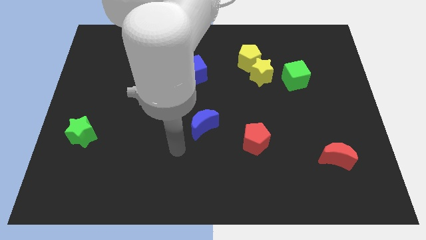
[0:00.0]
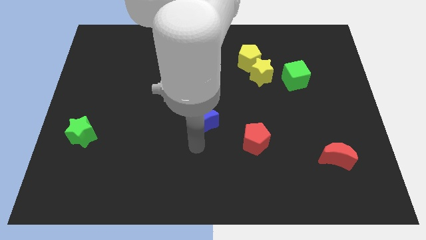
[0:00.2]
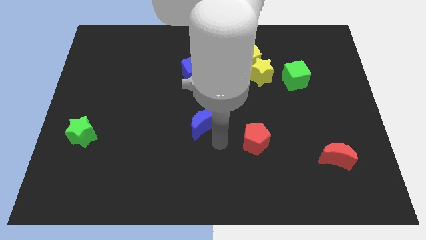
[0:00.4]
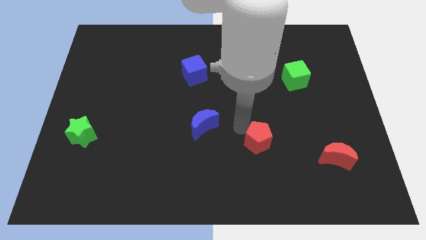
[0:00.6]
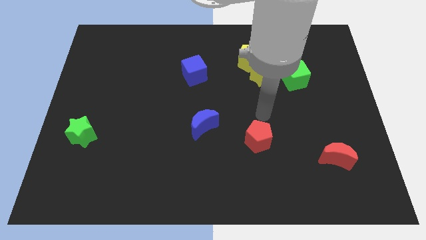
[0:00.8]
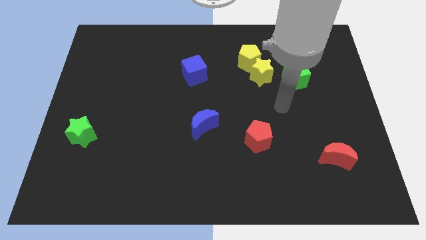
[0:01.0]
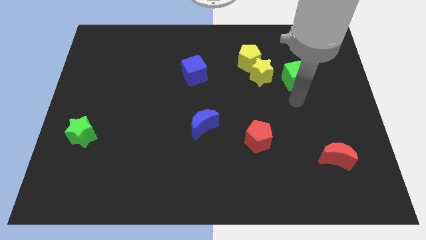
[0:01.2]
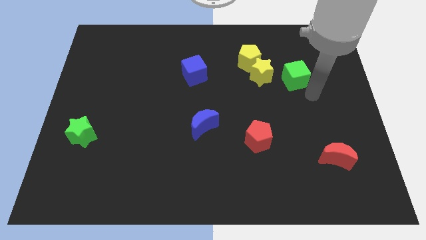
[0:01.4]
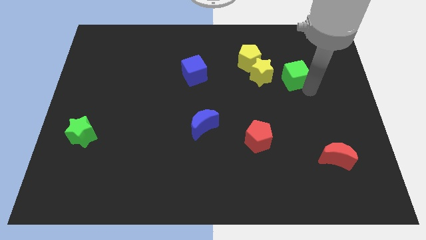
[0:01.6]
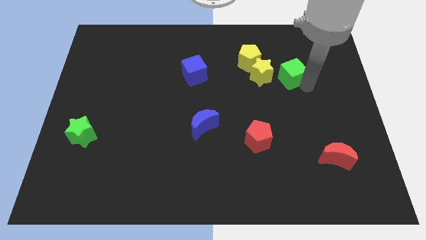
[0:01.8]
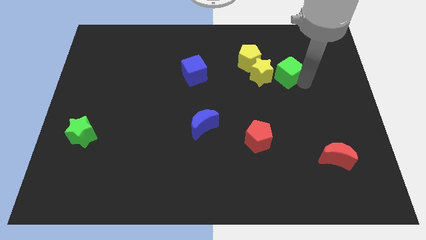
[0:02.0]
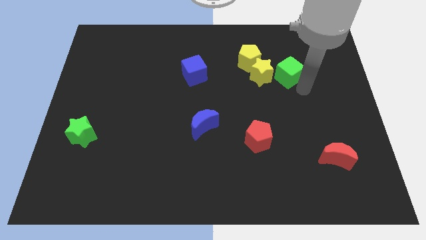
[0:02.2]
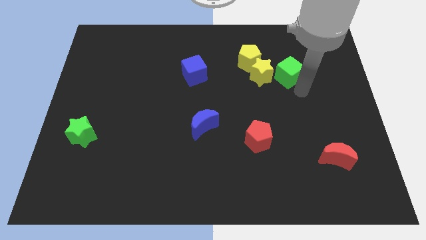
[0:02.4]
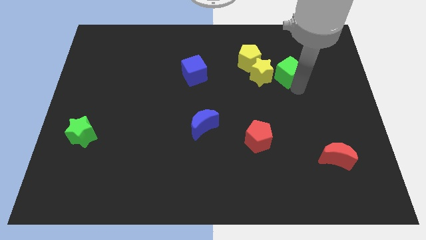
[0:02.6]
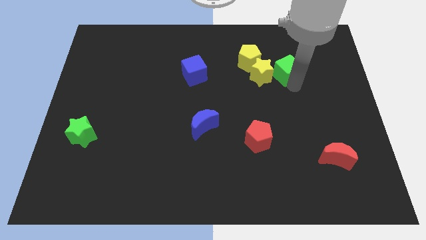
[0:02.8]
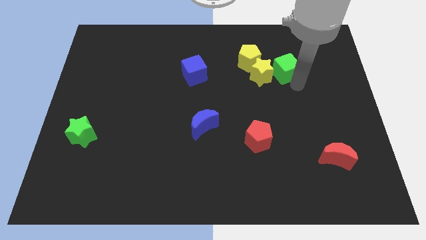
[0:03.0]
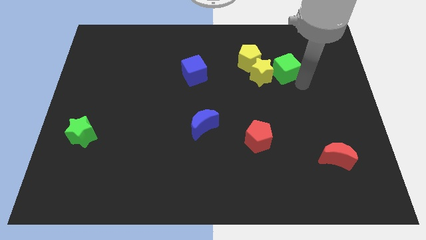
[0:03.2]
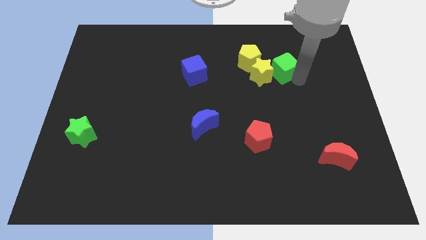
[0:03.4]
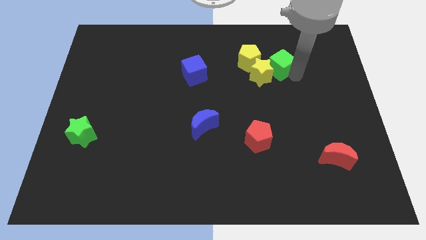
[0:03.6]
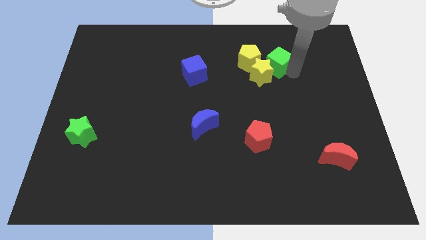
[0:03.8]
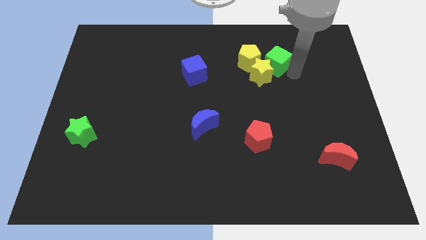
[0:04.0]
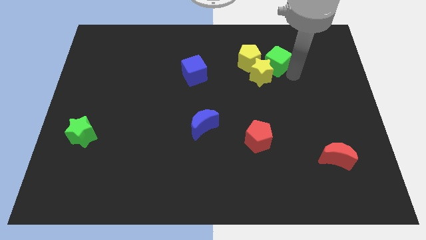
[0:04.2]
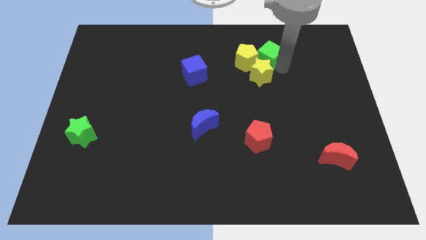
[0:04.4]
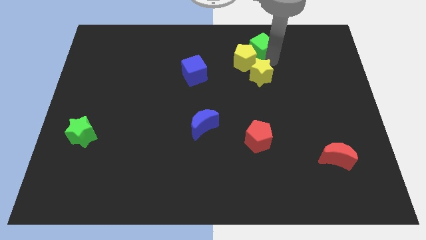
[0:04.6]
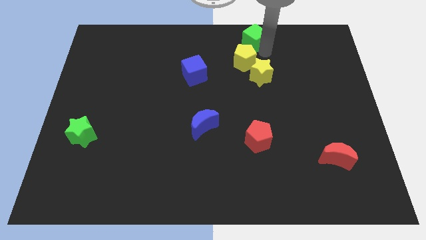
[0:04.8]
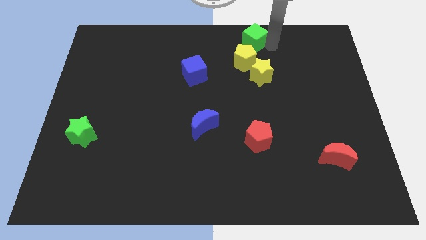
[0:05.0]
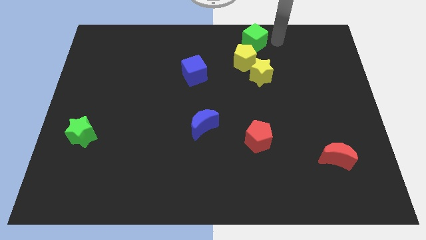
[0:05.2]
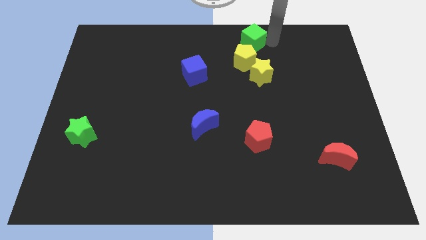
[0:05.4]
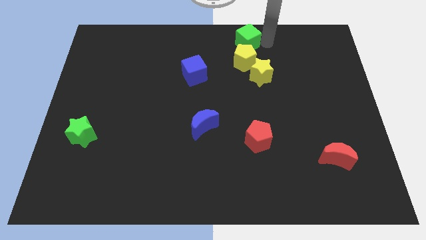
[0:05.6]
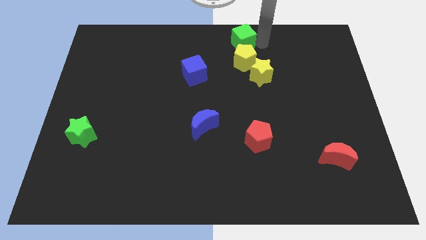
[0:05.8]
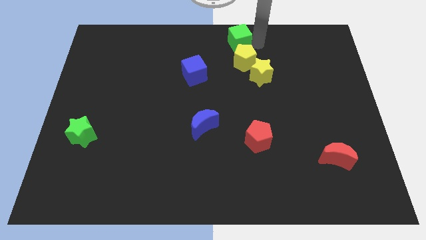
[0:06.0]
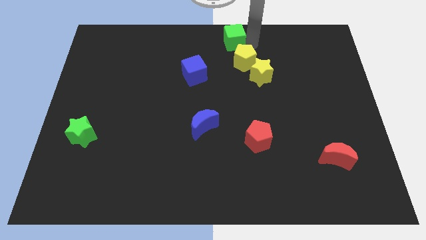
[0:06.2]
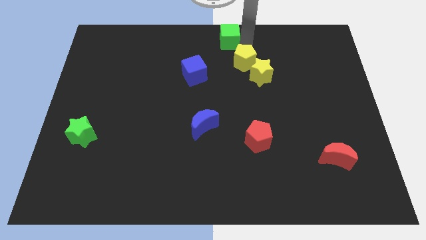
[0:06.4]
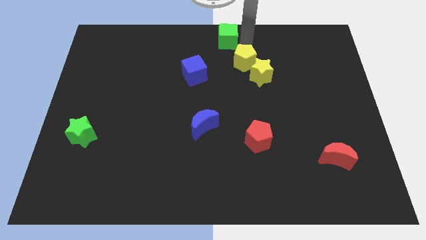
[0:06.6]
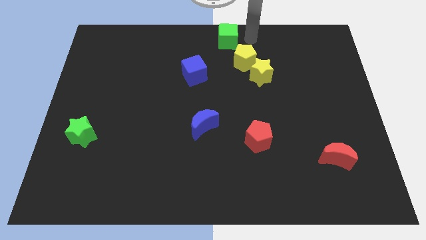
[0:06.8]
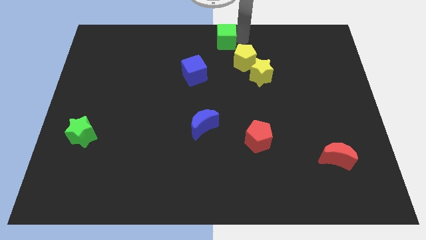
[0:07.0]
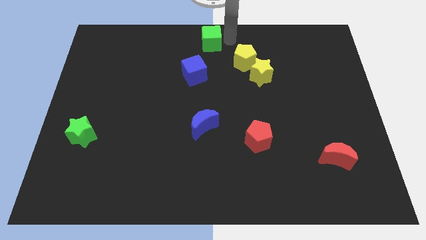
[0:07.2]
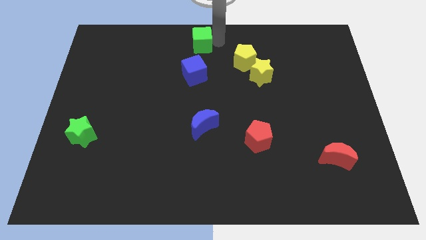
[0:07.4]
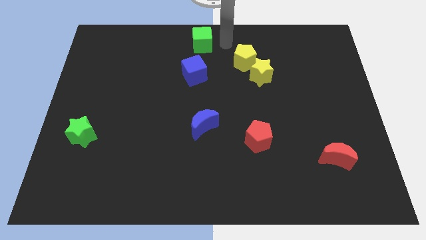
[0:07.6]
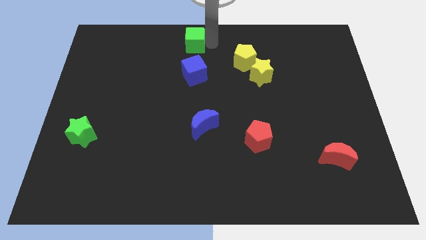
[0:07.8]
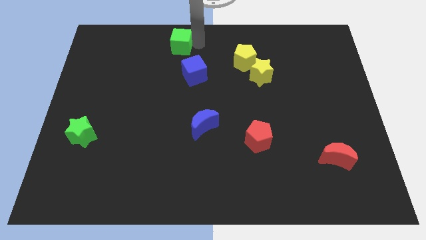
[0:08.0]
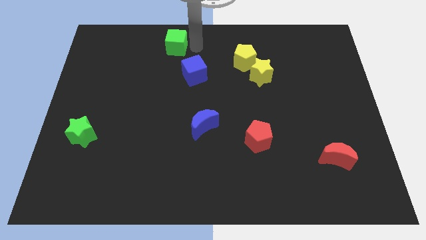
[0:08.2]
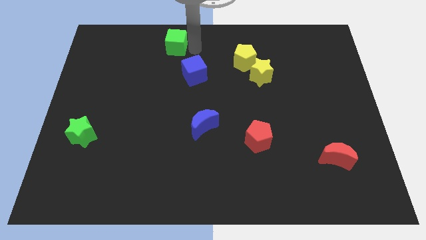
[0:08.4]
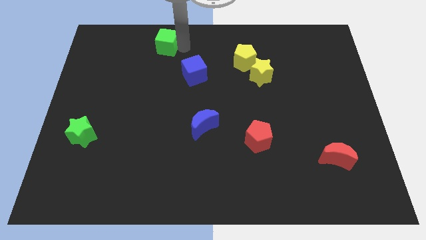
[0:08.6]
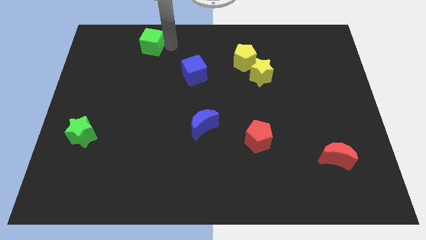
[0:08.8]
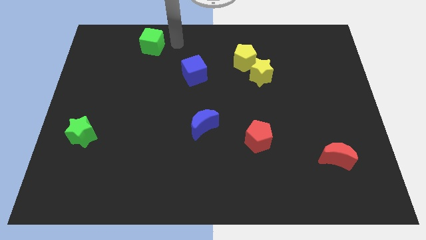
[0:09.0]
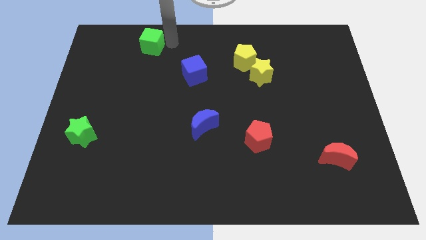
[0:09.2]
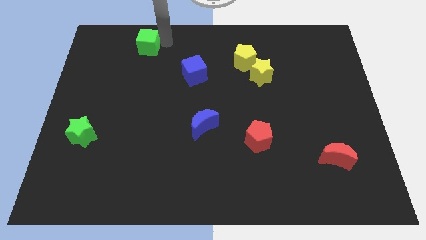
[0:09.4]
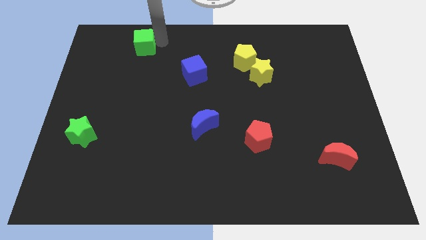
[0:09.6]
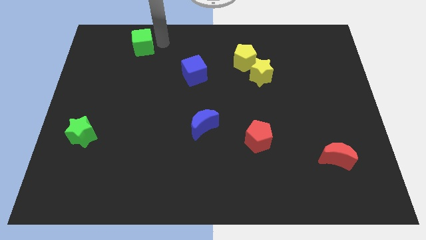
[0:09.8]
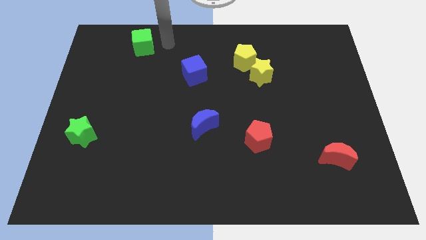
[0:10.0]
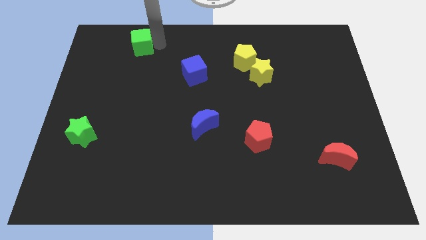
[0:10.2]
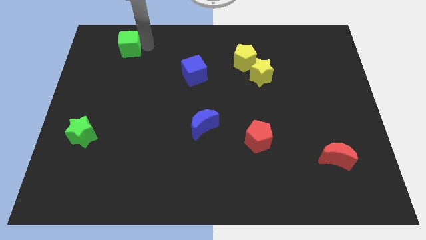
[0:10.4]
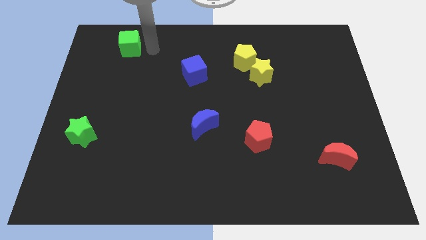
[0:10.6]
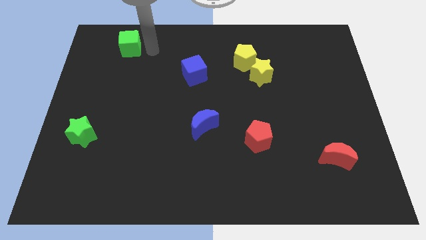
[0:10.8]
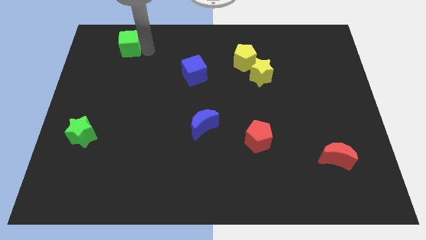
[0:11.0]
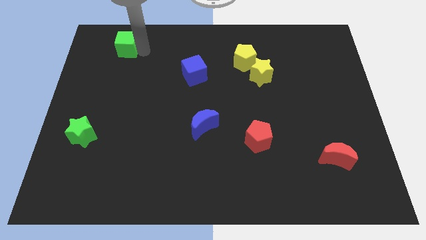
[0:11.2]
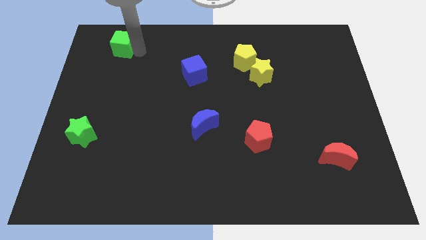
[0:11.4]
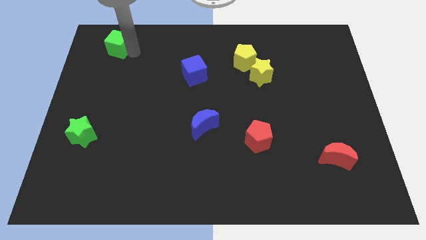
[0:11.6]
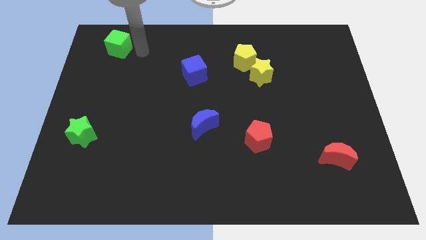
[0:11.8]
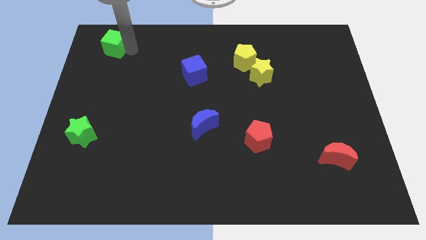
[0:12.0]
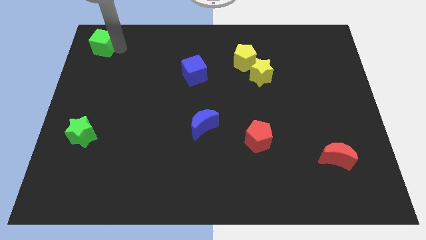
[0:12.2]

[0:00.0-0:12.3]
put the green cube to the upper left corner

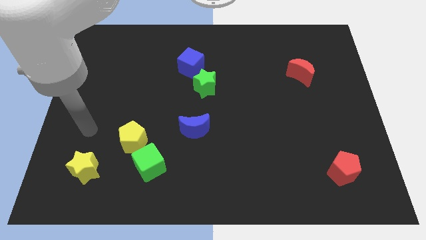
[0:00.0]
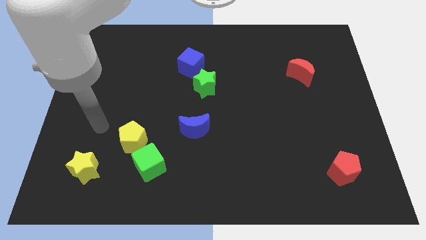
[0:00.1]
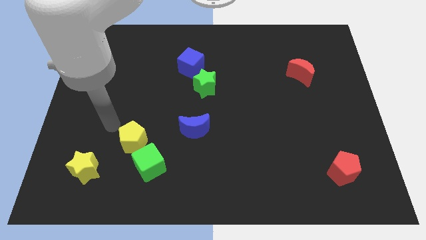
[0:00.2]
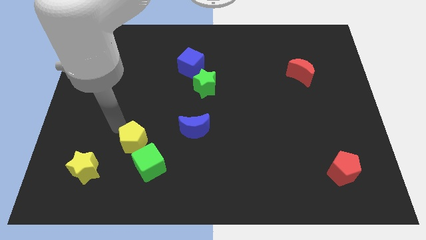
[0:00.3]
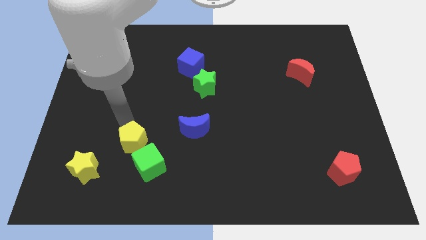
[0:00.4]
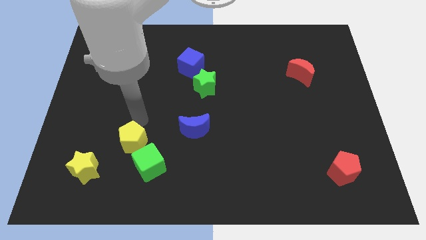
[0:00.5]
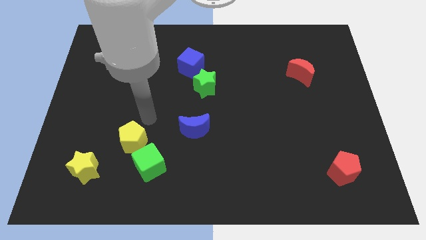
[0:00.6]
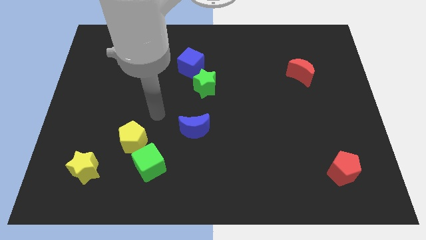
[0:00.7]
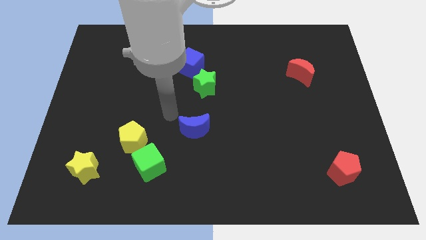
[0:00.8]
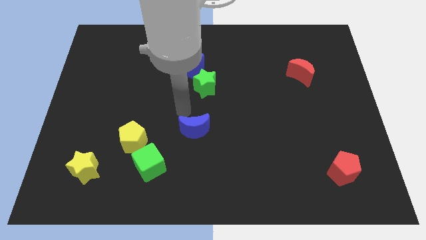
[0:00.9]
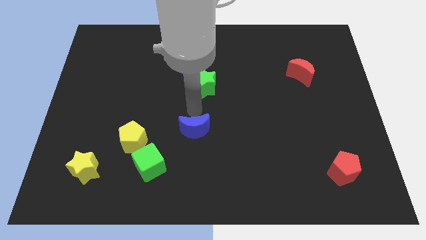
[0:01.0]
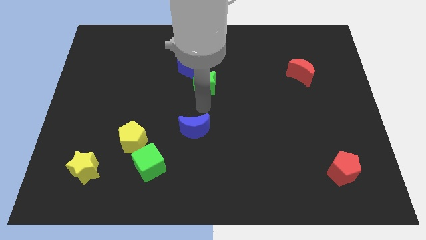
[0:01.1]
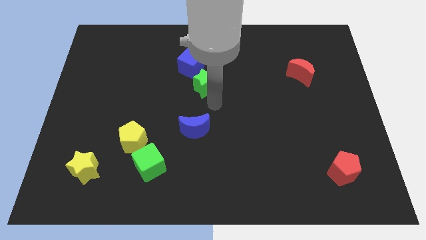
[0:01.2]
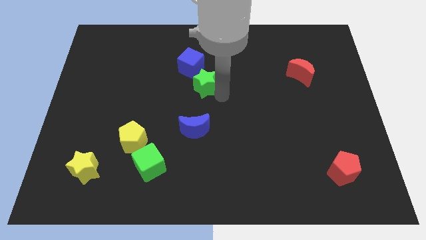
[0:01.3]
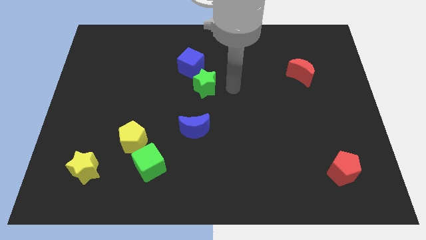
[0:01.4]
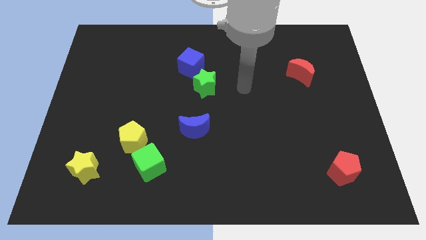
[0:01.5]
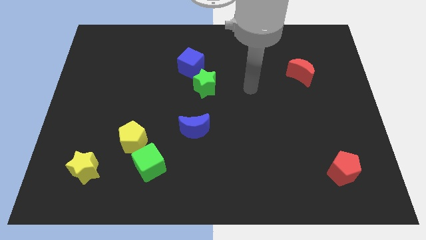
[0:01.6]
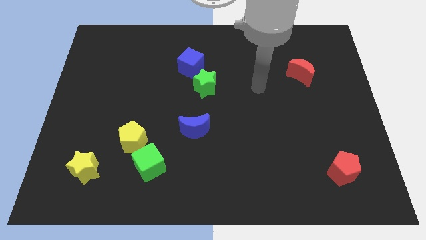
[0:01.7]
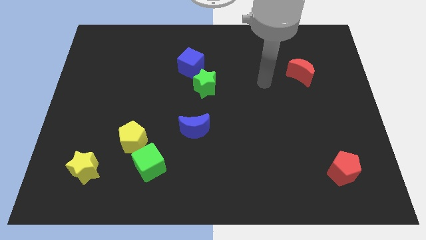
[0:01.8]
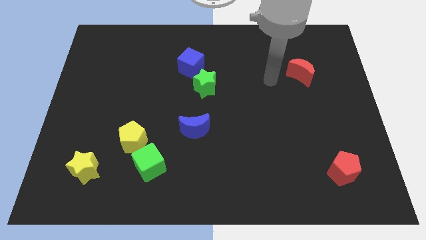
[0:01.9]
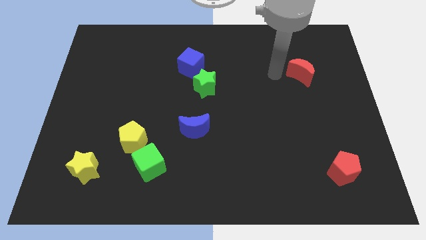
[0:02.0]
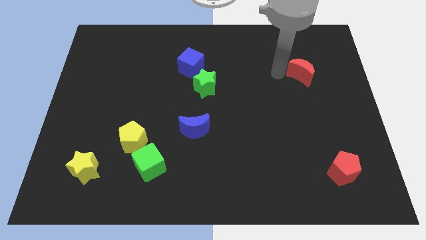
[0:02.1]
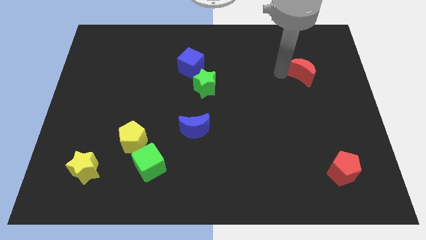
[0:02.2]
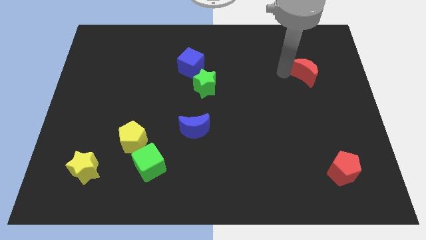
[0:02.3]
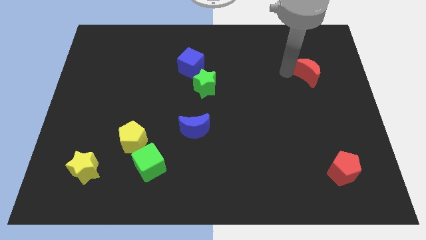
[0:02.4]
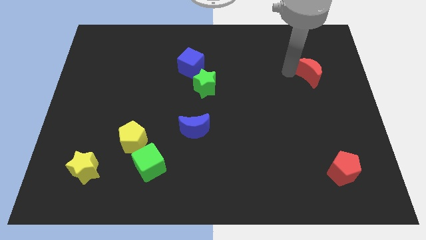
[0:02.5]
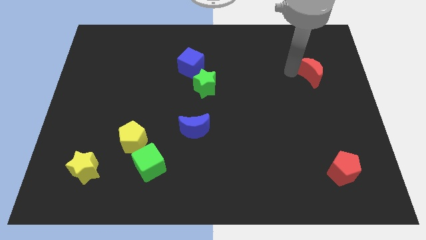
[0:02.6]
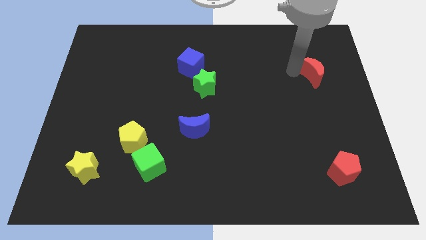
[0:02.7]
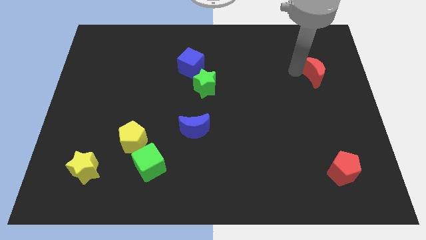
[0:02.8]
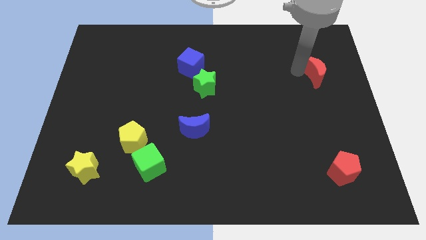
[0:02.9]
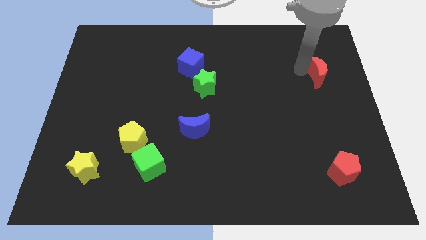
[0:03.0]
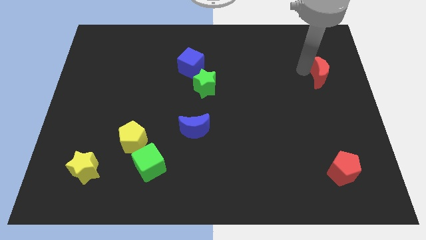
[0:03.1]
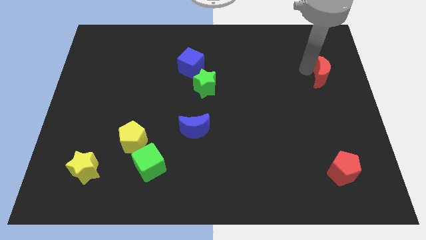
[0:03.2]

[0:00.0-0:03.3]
push the red moon to the right side of the board
